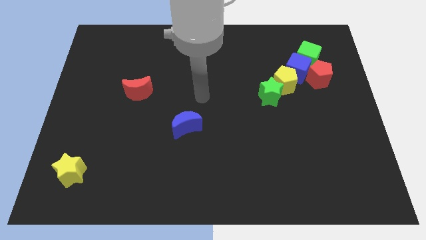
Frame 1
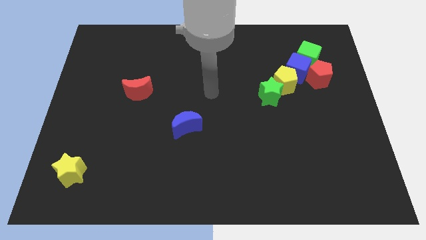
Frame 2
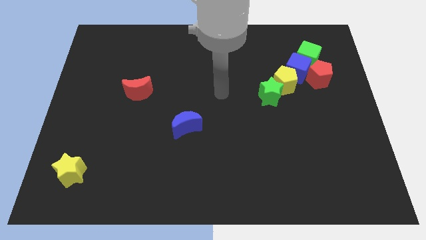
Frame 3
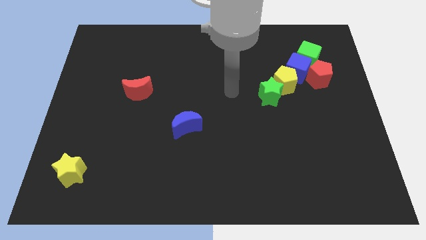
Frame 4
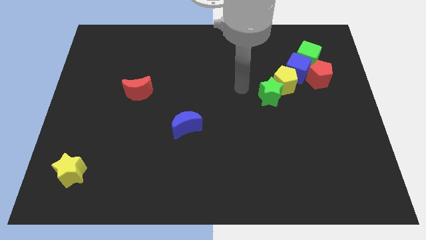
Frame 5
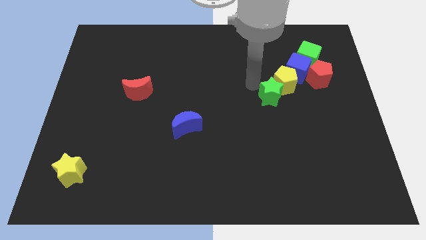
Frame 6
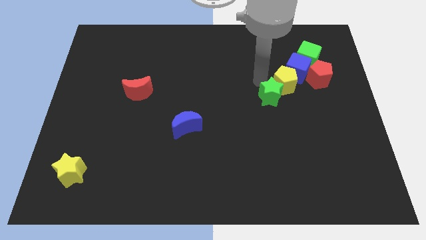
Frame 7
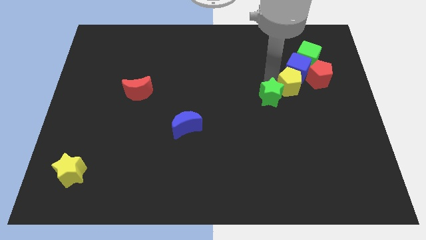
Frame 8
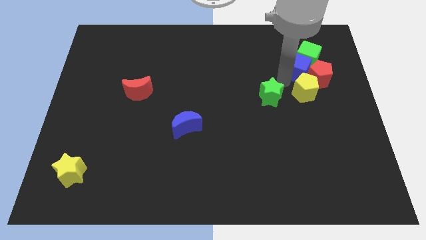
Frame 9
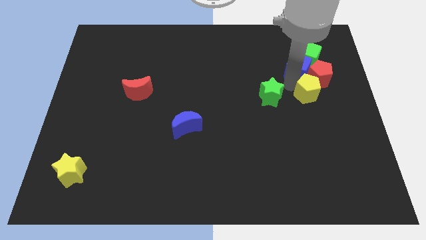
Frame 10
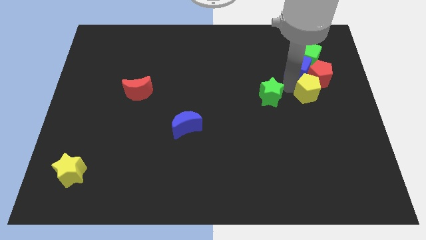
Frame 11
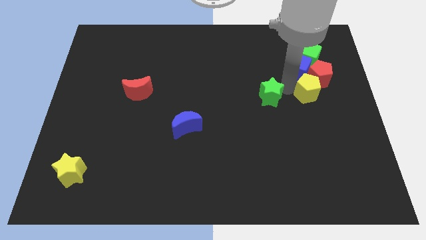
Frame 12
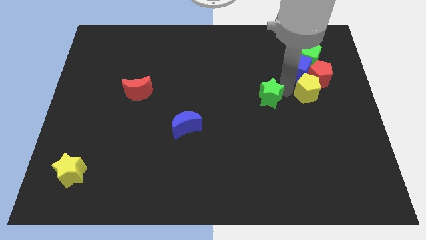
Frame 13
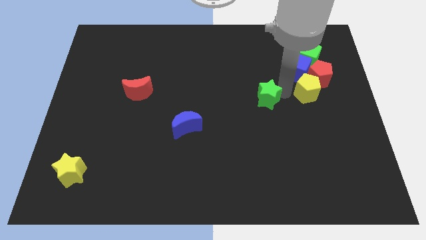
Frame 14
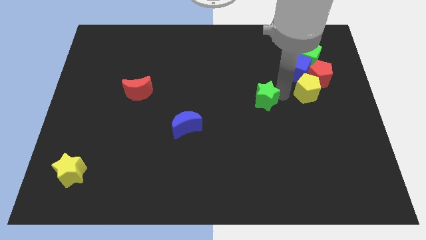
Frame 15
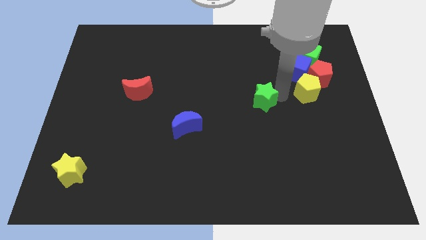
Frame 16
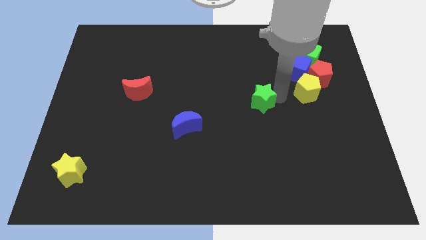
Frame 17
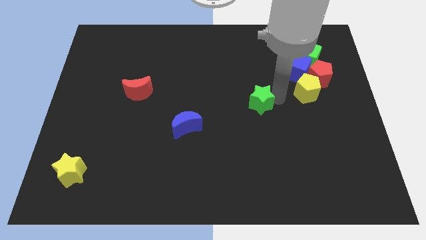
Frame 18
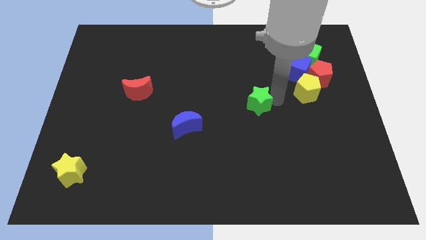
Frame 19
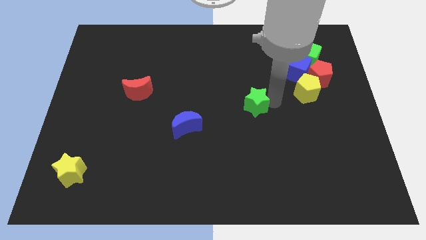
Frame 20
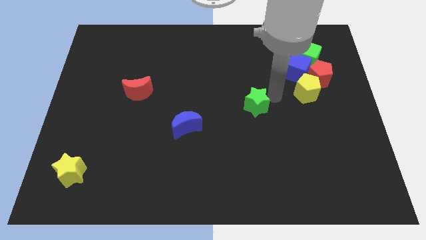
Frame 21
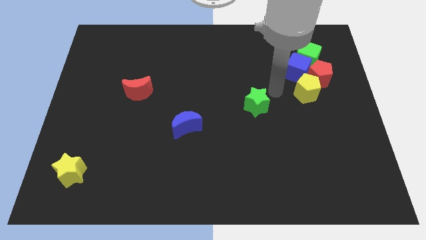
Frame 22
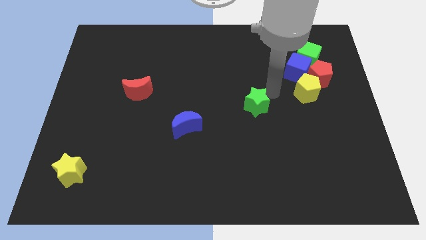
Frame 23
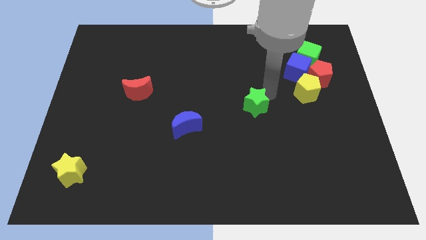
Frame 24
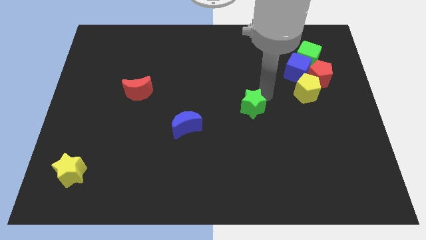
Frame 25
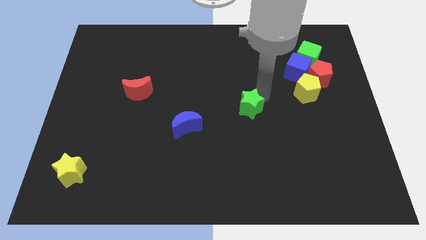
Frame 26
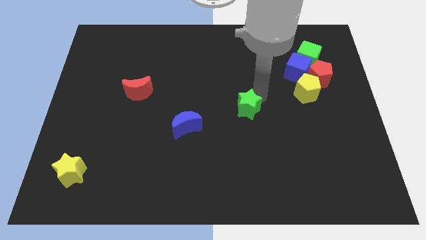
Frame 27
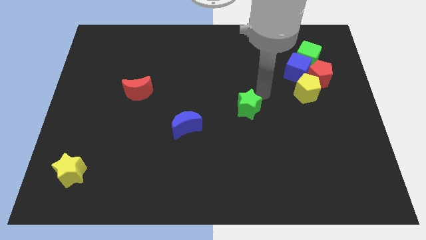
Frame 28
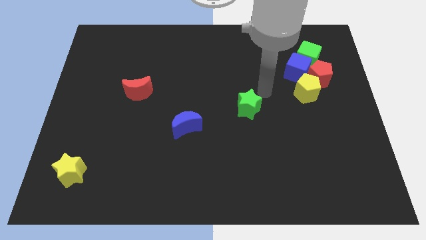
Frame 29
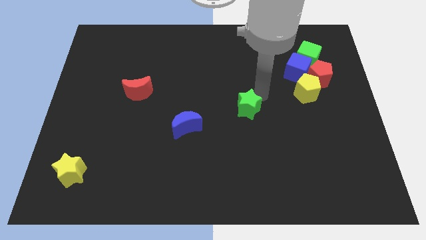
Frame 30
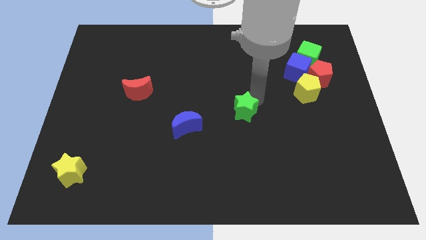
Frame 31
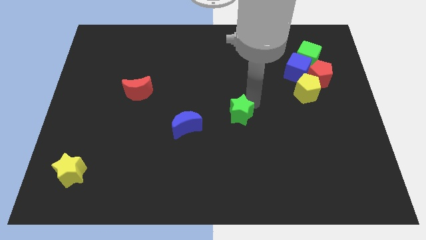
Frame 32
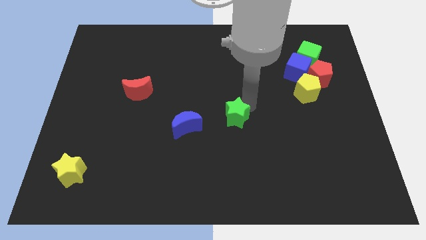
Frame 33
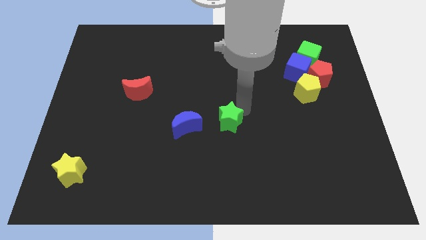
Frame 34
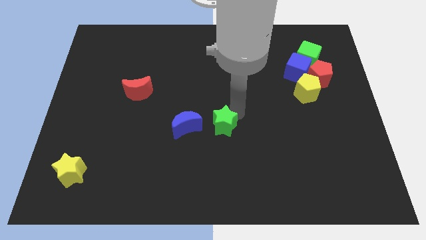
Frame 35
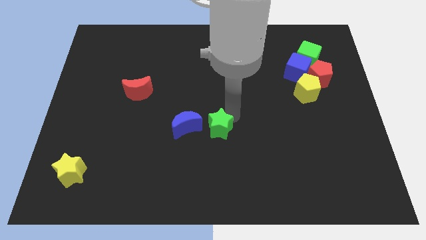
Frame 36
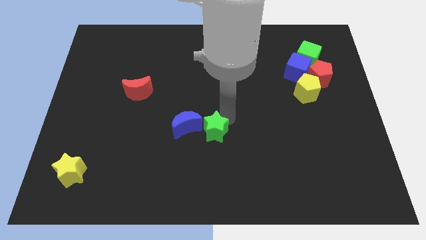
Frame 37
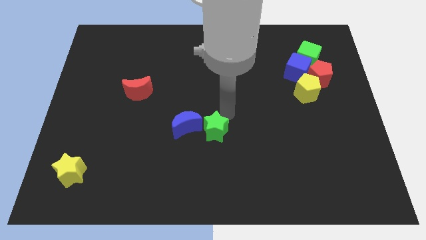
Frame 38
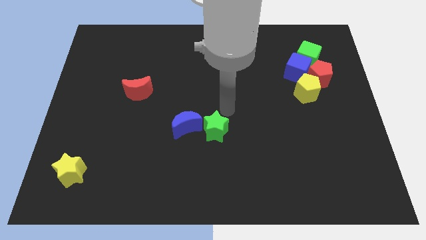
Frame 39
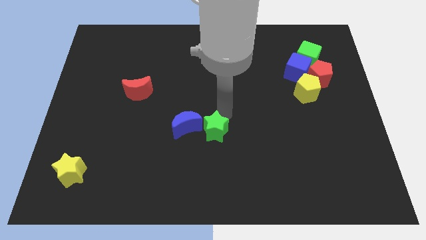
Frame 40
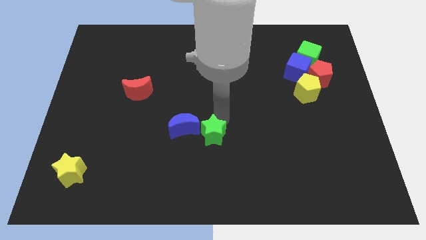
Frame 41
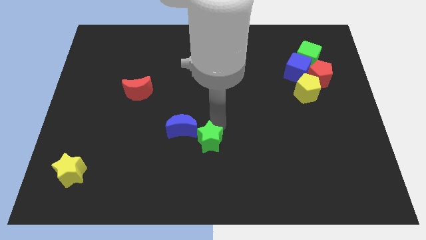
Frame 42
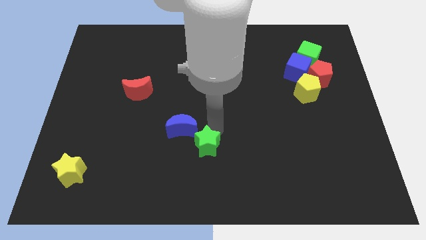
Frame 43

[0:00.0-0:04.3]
slide the green star down and to the left

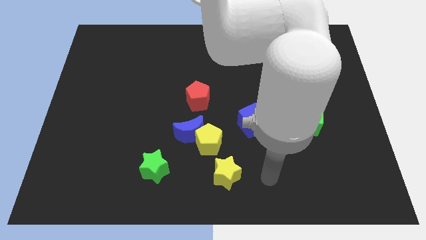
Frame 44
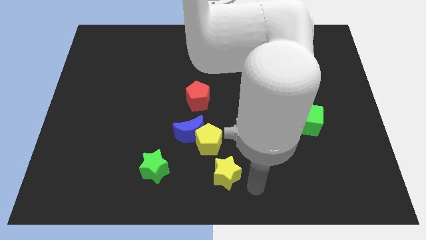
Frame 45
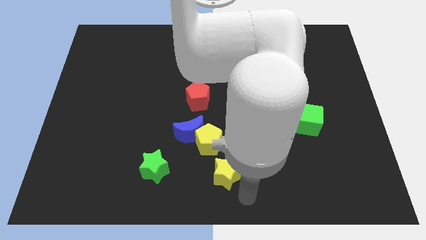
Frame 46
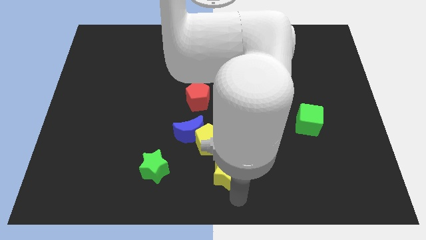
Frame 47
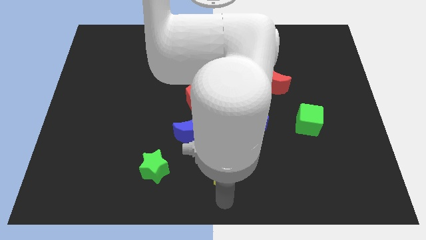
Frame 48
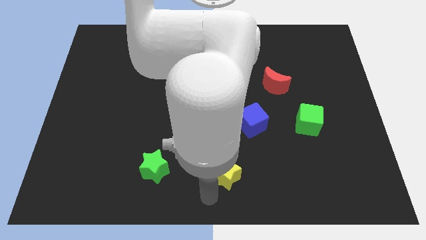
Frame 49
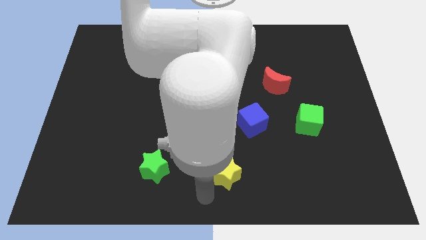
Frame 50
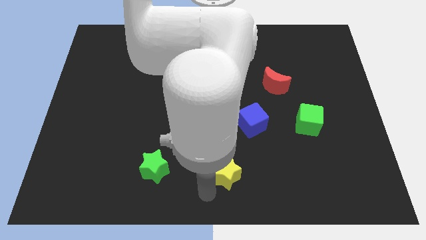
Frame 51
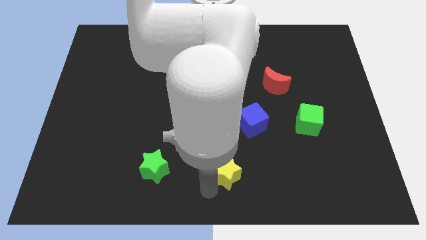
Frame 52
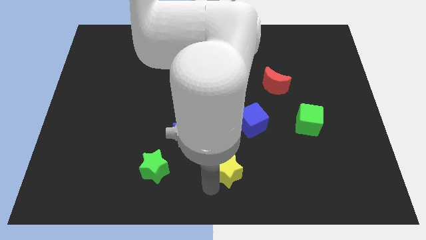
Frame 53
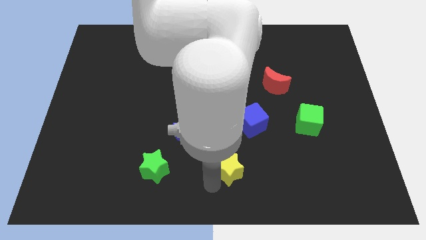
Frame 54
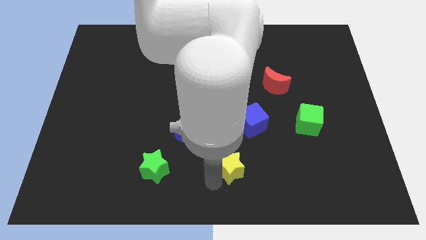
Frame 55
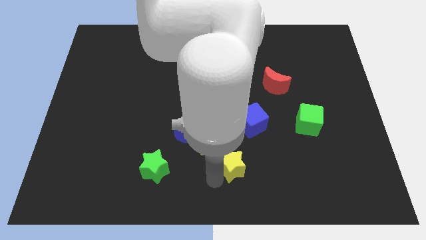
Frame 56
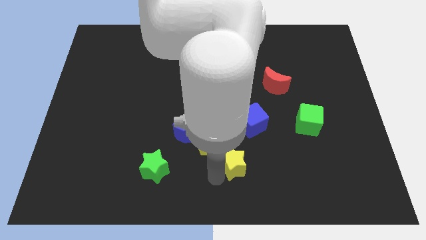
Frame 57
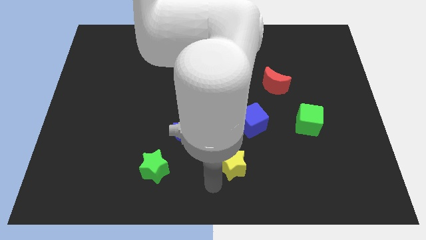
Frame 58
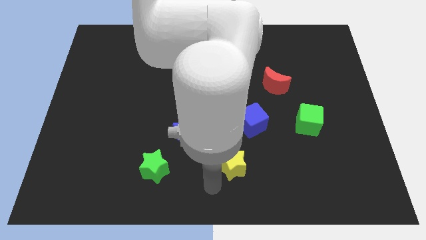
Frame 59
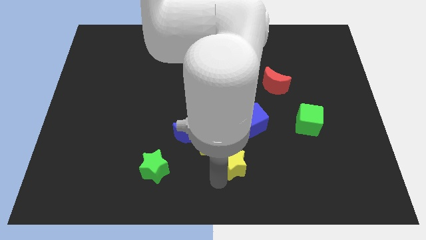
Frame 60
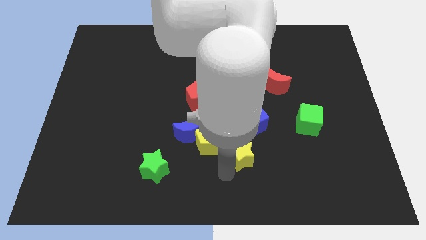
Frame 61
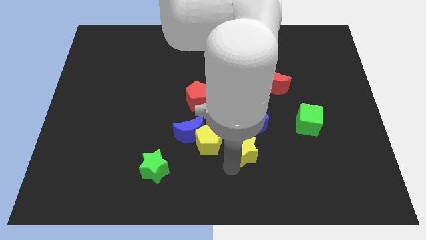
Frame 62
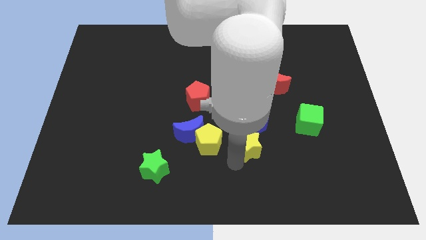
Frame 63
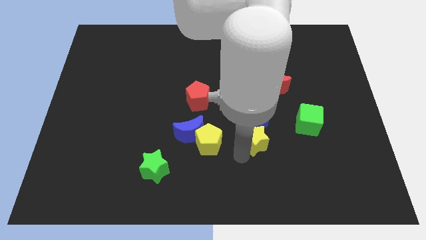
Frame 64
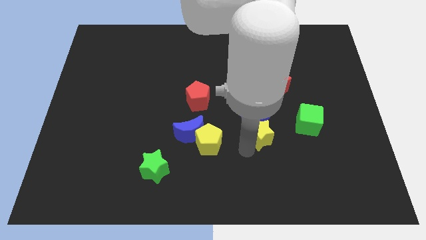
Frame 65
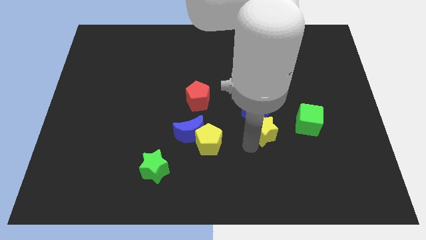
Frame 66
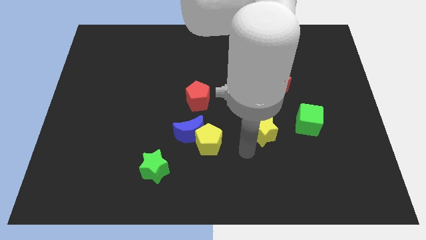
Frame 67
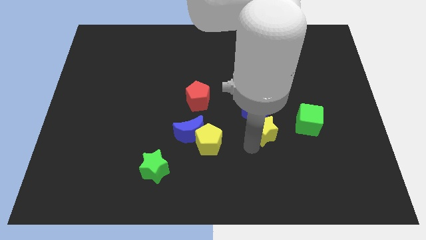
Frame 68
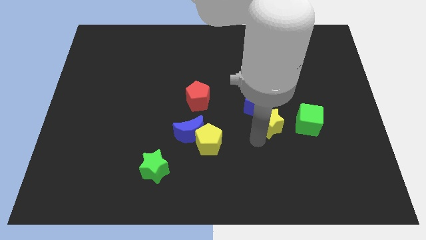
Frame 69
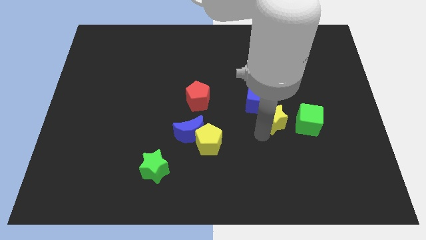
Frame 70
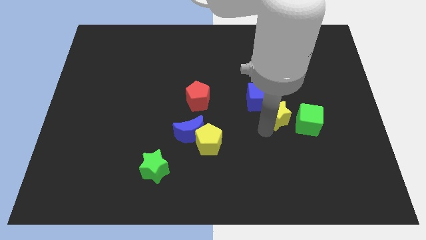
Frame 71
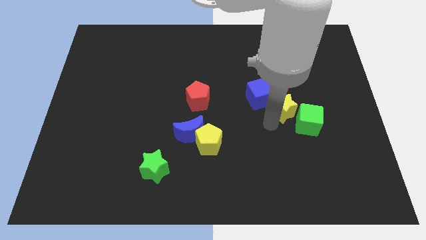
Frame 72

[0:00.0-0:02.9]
slide the yellow star upwards and right

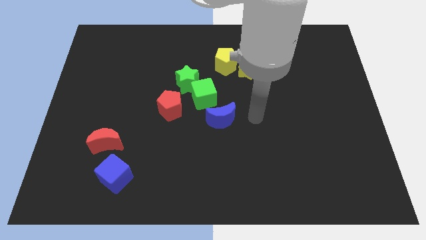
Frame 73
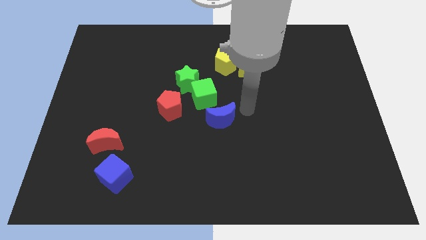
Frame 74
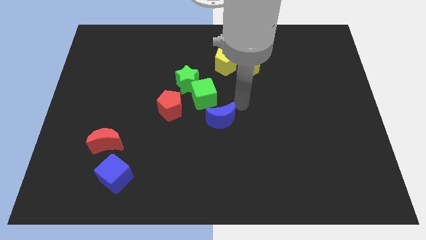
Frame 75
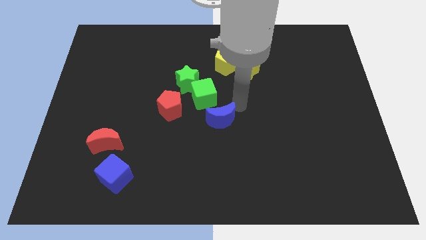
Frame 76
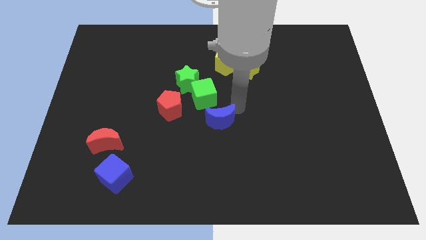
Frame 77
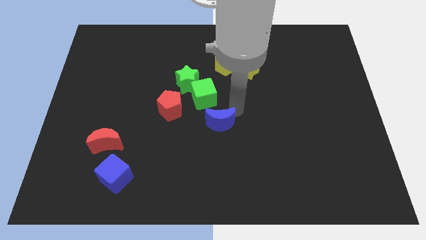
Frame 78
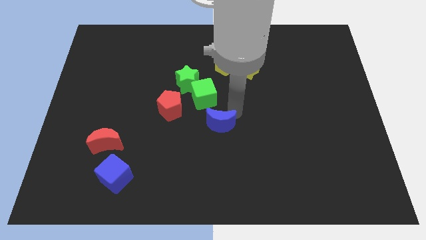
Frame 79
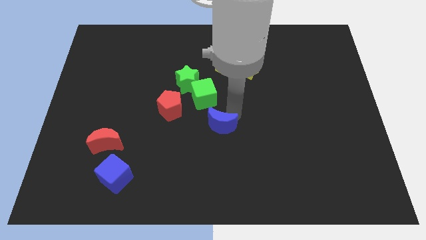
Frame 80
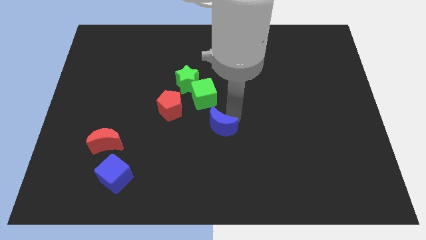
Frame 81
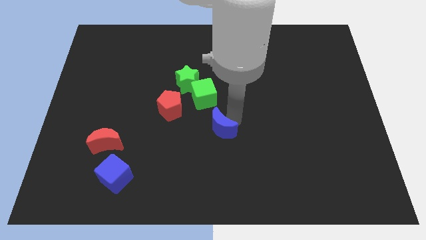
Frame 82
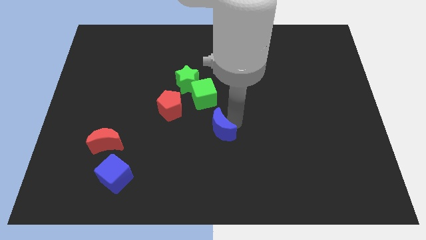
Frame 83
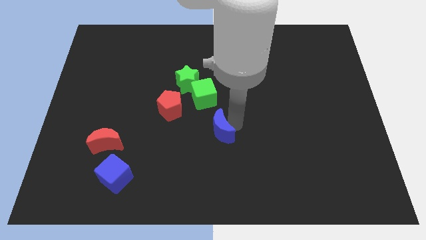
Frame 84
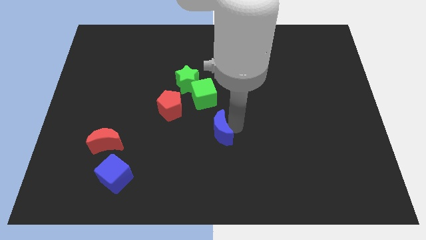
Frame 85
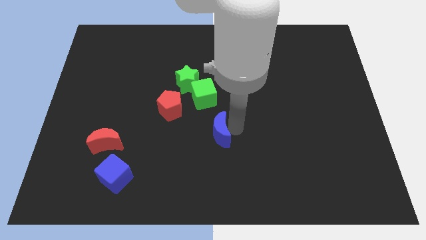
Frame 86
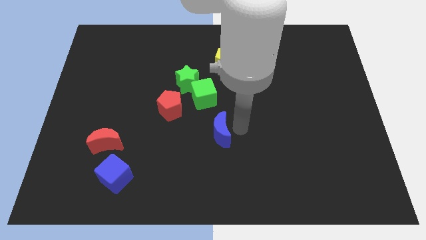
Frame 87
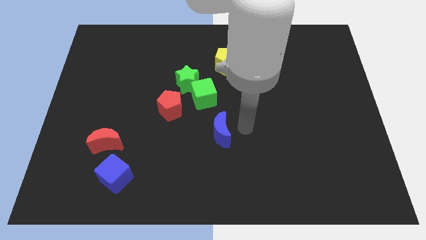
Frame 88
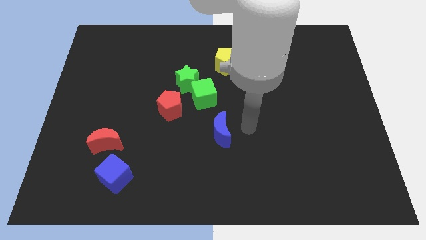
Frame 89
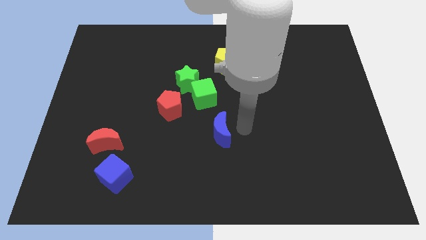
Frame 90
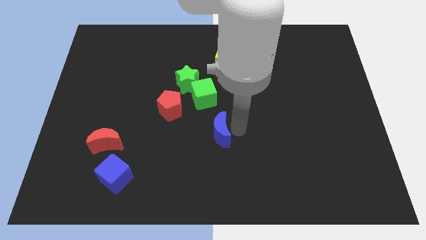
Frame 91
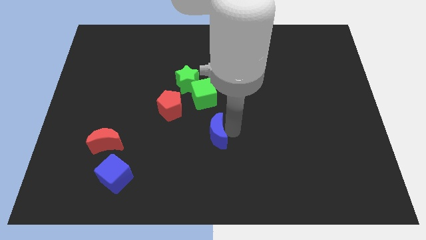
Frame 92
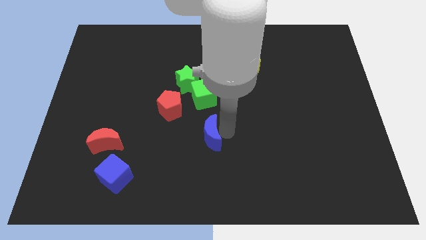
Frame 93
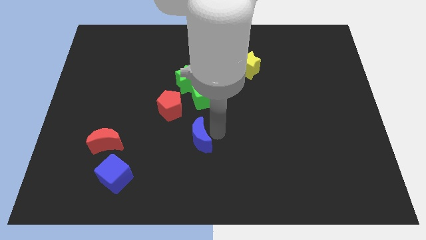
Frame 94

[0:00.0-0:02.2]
slightly move the blue moon diagonally downwards and left
